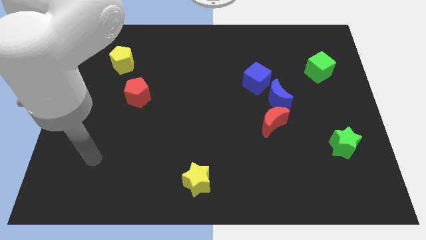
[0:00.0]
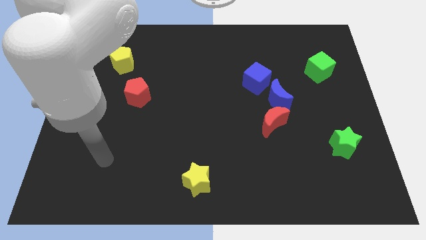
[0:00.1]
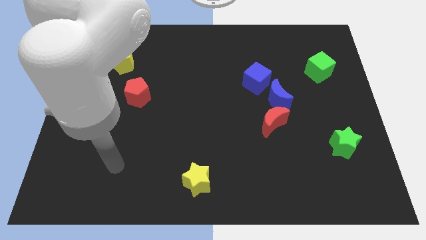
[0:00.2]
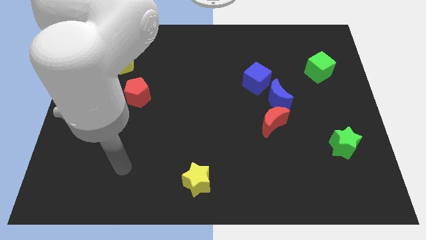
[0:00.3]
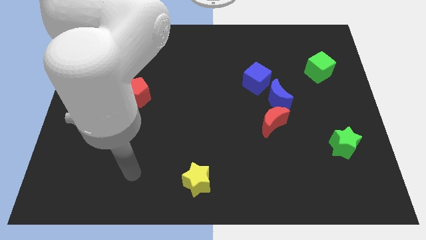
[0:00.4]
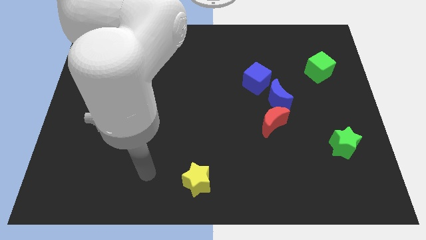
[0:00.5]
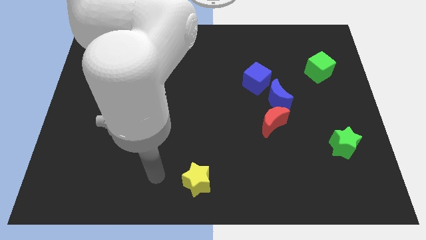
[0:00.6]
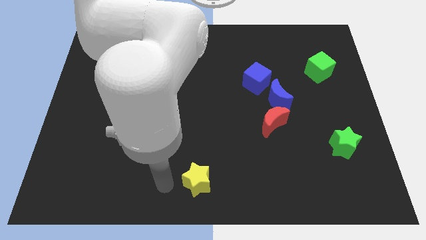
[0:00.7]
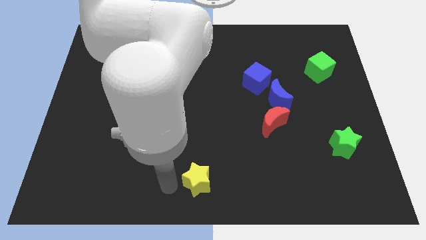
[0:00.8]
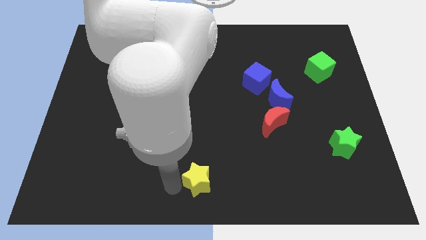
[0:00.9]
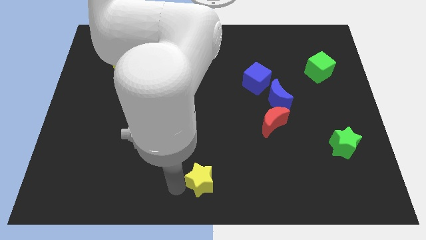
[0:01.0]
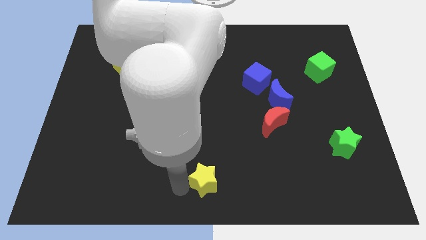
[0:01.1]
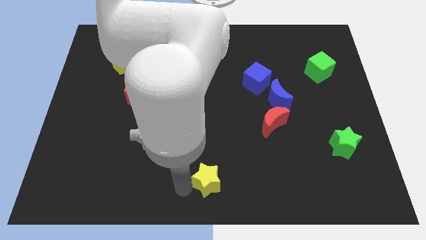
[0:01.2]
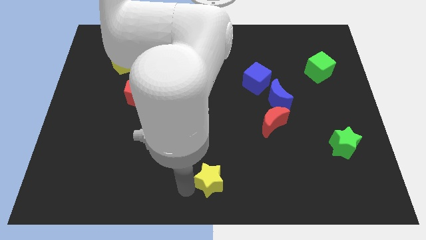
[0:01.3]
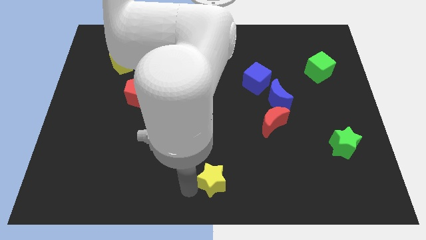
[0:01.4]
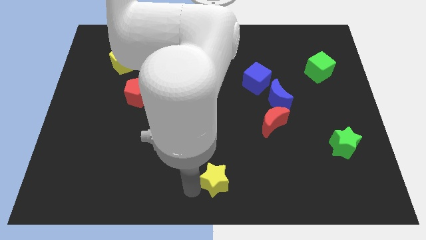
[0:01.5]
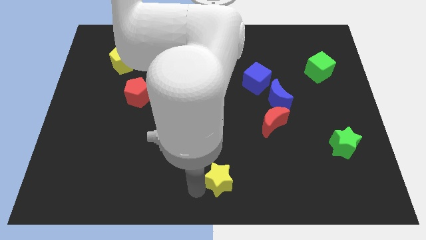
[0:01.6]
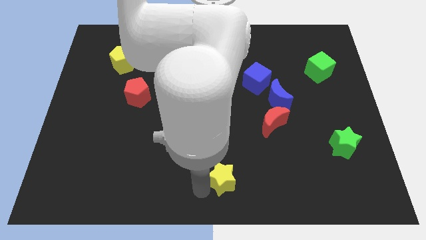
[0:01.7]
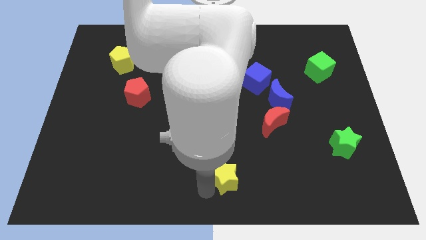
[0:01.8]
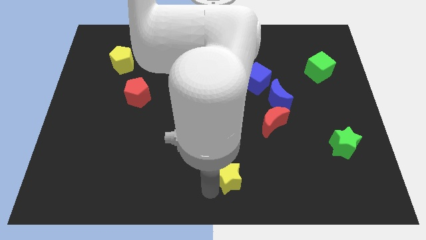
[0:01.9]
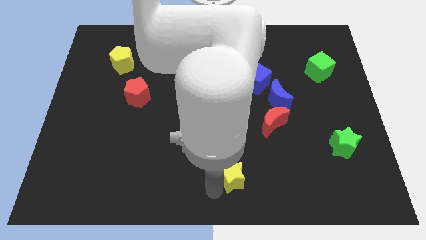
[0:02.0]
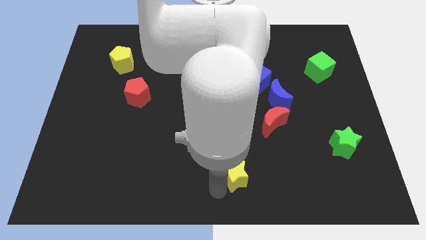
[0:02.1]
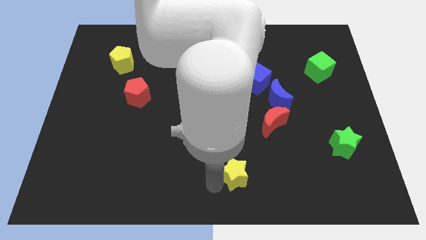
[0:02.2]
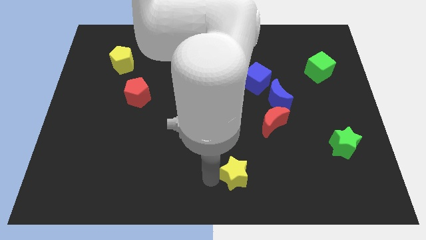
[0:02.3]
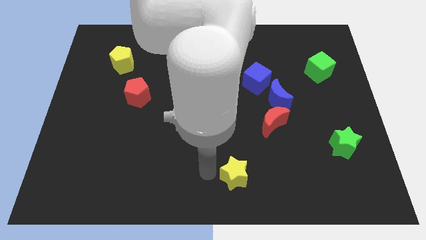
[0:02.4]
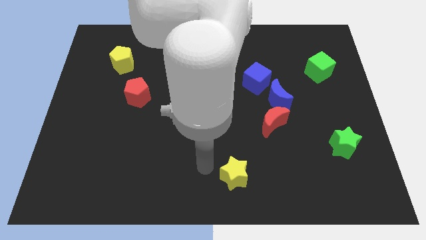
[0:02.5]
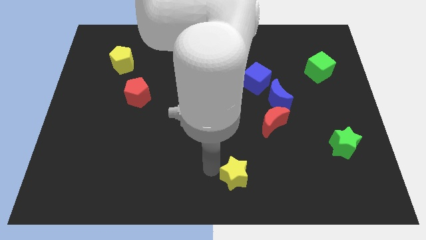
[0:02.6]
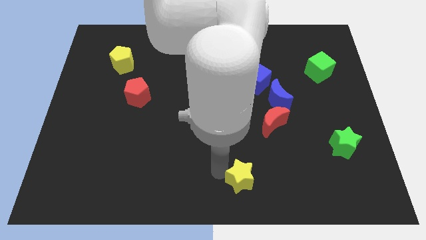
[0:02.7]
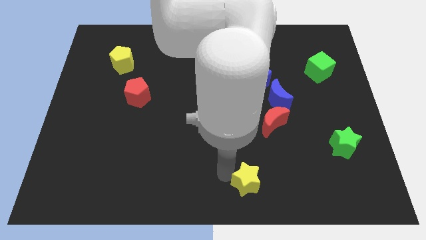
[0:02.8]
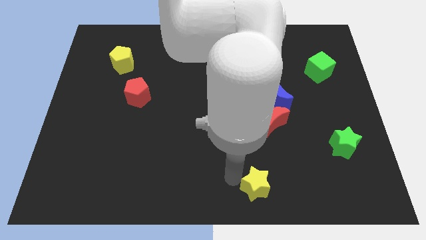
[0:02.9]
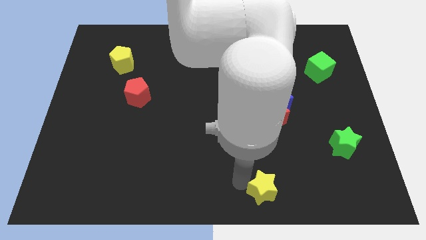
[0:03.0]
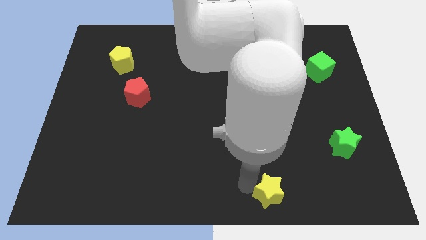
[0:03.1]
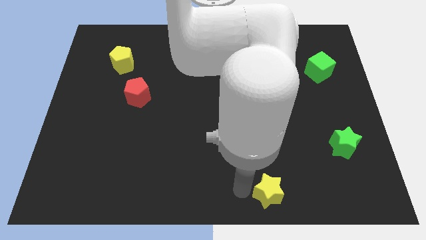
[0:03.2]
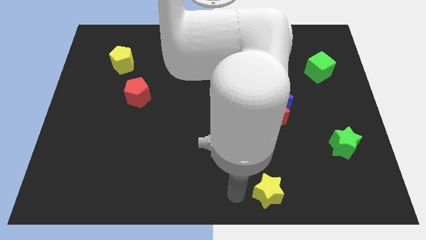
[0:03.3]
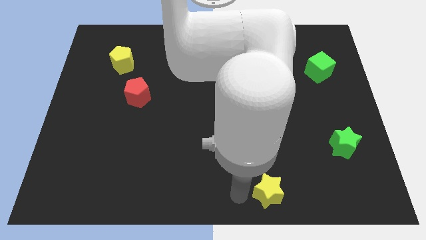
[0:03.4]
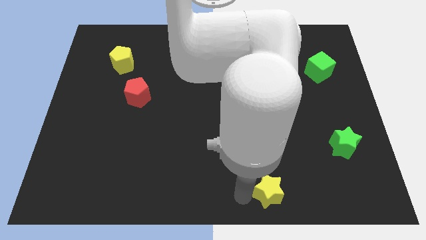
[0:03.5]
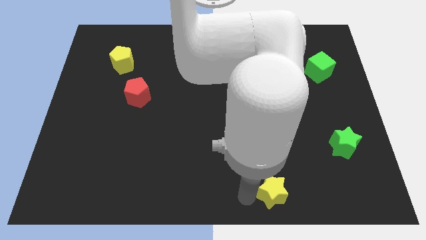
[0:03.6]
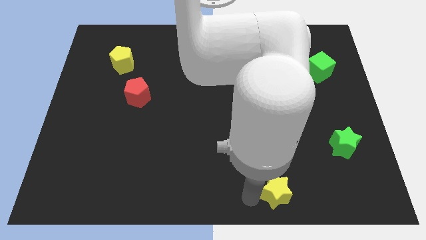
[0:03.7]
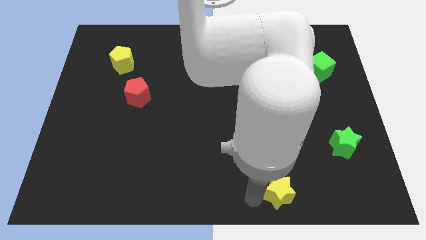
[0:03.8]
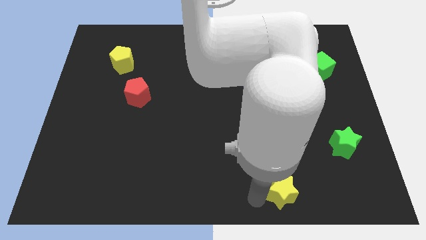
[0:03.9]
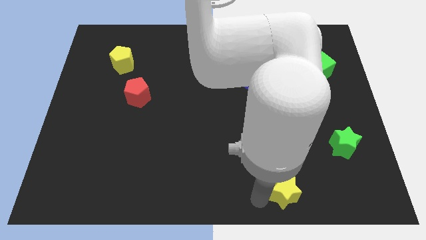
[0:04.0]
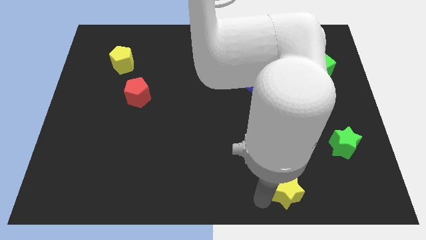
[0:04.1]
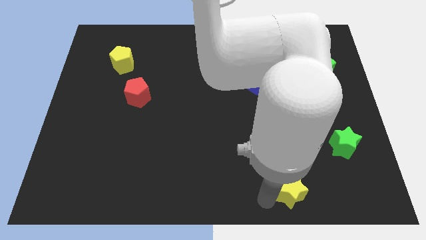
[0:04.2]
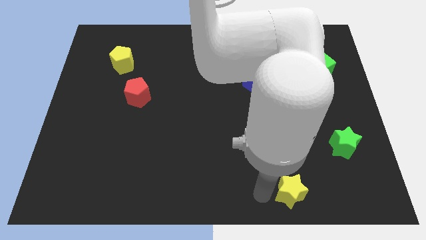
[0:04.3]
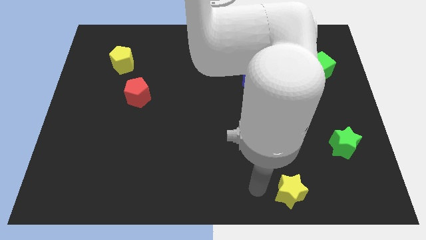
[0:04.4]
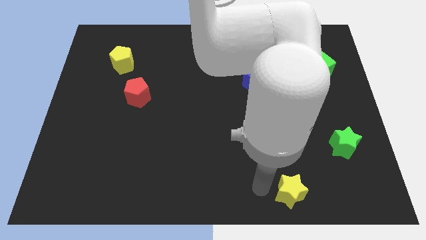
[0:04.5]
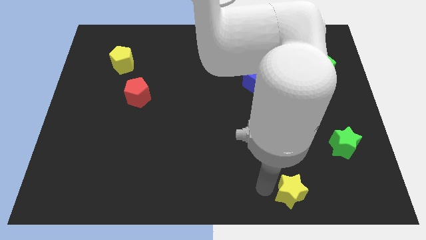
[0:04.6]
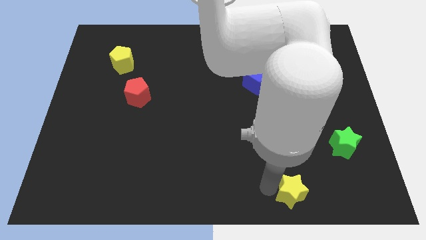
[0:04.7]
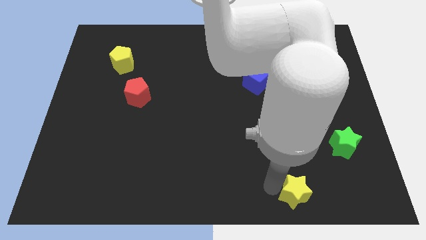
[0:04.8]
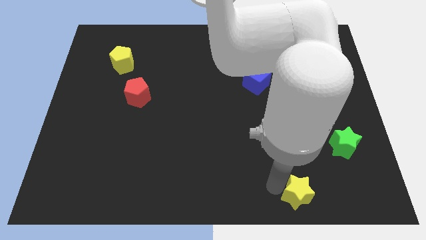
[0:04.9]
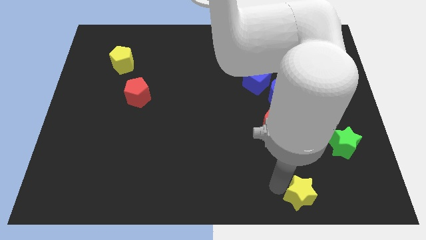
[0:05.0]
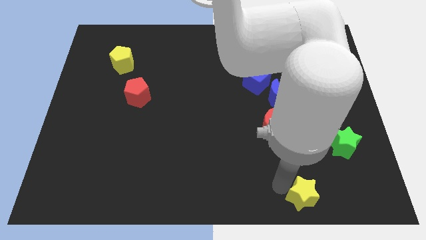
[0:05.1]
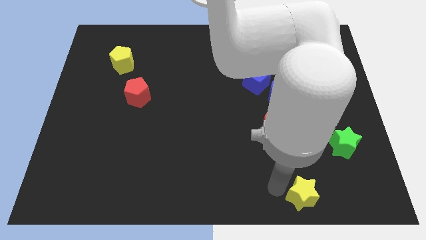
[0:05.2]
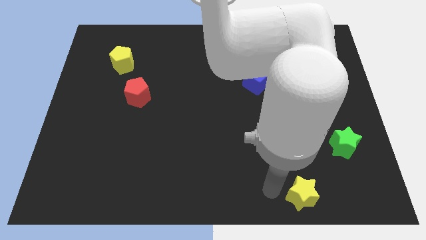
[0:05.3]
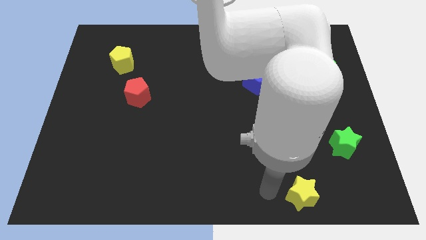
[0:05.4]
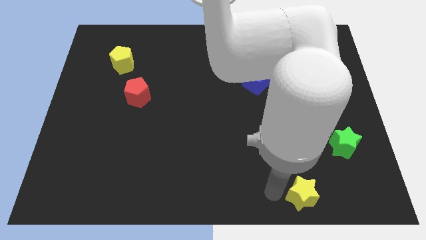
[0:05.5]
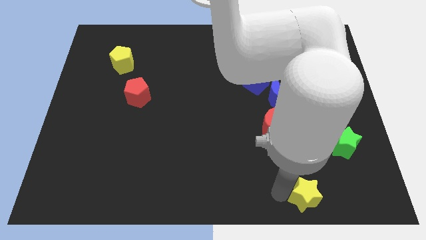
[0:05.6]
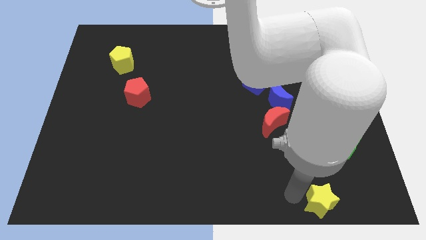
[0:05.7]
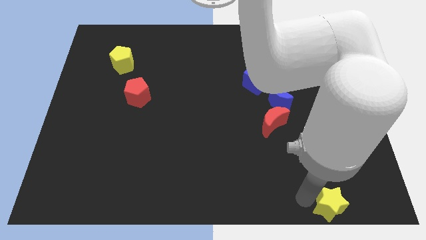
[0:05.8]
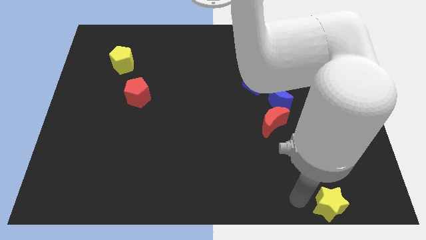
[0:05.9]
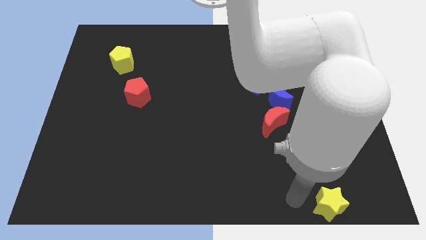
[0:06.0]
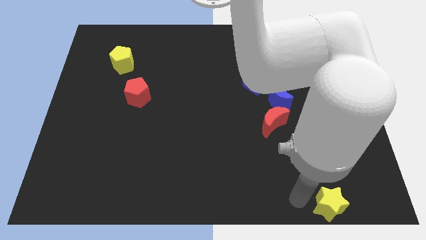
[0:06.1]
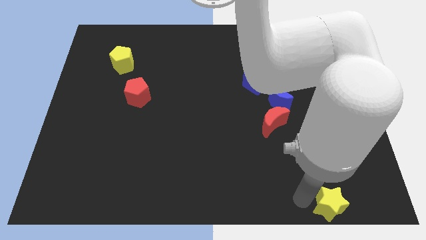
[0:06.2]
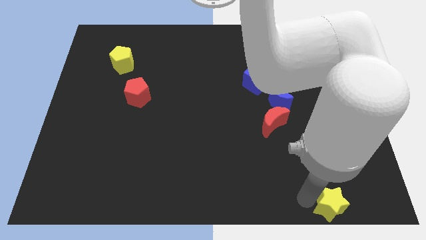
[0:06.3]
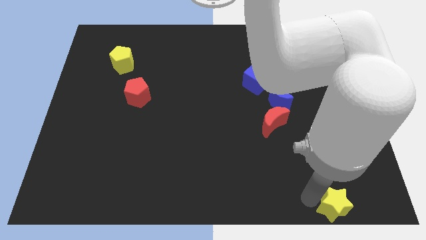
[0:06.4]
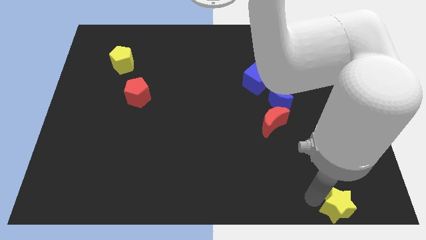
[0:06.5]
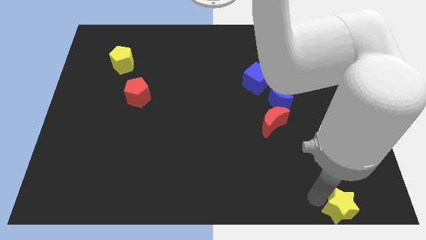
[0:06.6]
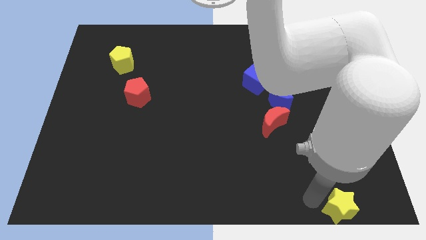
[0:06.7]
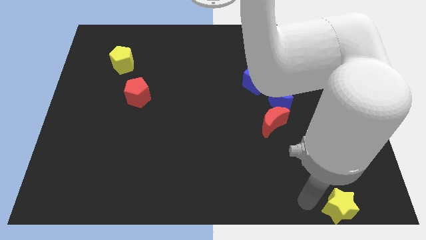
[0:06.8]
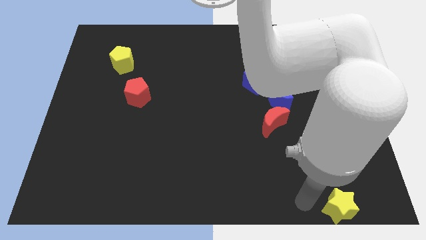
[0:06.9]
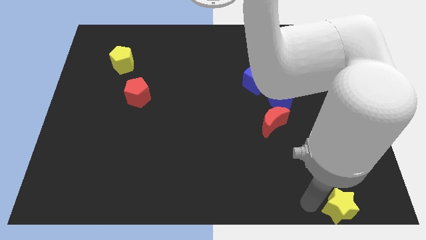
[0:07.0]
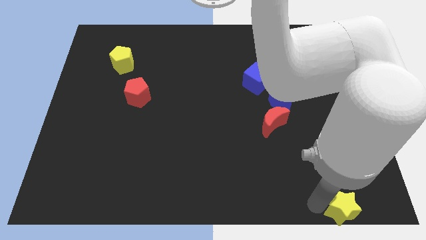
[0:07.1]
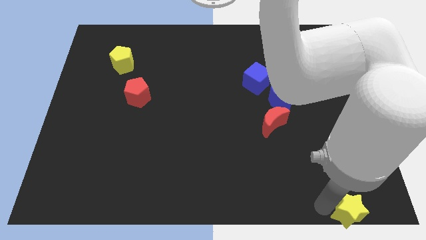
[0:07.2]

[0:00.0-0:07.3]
push the yellow star to the bottom right of the board
